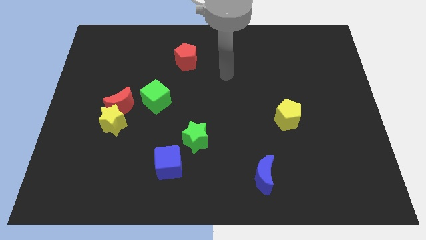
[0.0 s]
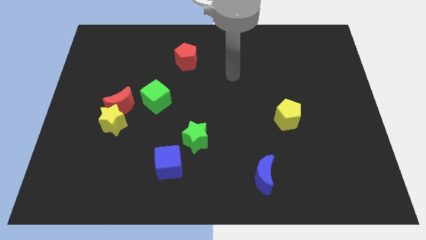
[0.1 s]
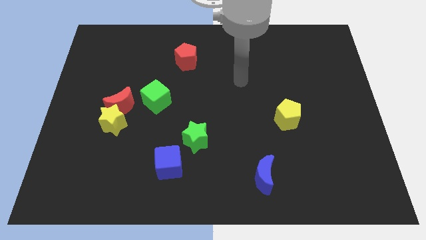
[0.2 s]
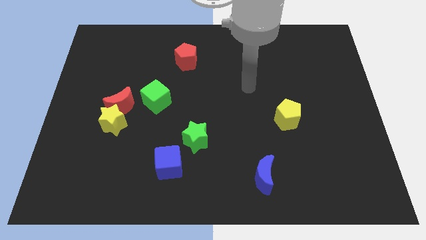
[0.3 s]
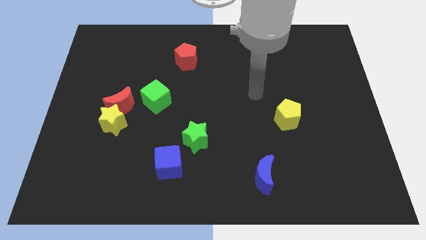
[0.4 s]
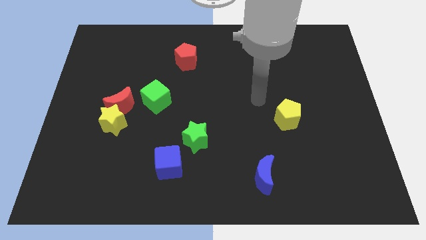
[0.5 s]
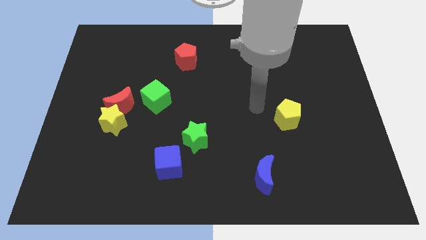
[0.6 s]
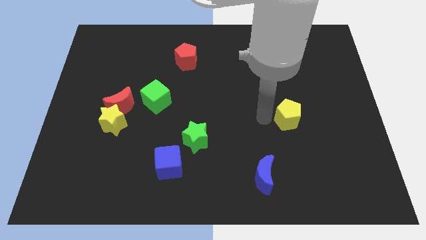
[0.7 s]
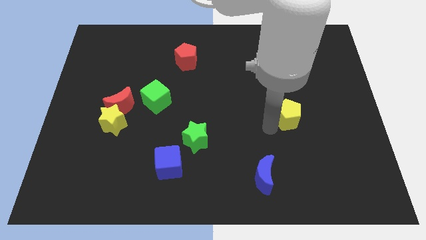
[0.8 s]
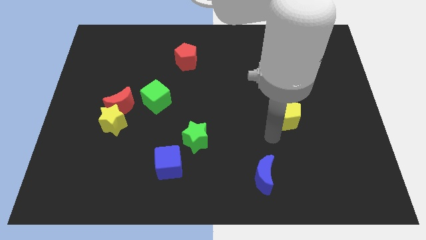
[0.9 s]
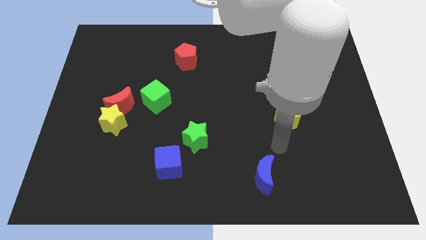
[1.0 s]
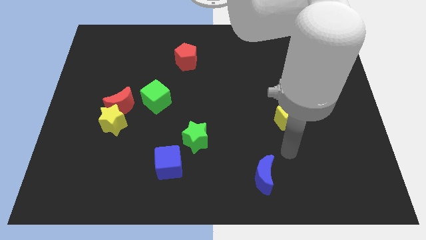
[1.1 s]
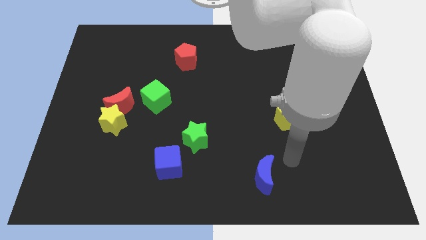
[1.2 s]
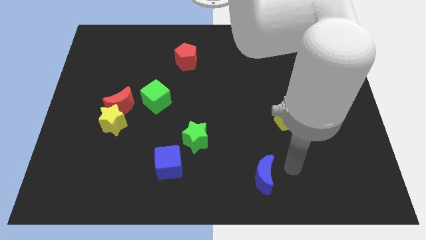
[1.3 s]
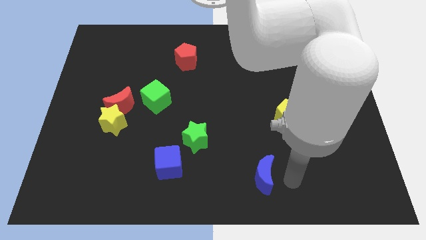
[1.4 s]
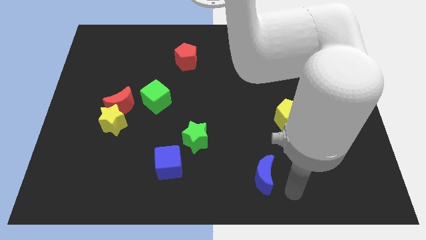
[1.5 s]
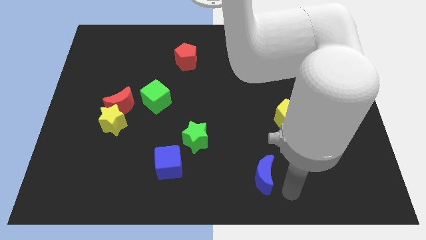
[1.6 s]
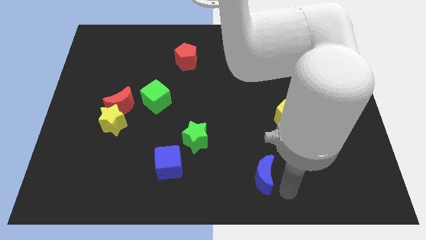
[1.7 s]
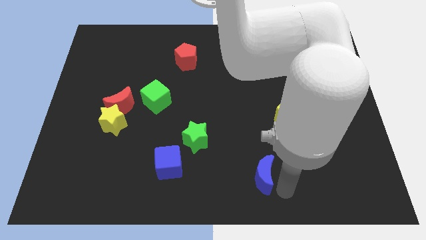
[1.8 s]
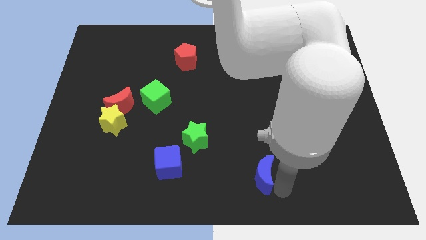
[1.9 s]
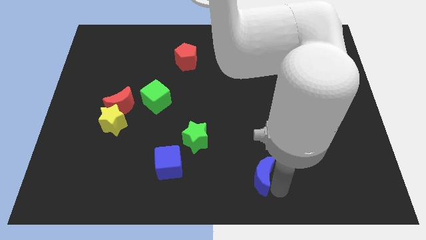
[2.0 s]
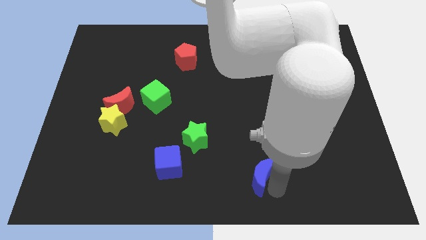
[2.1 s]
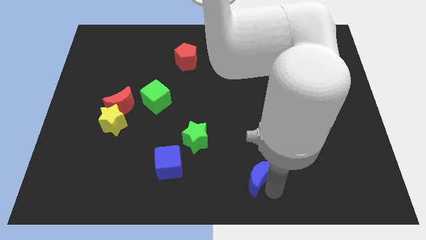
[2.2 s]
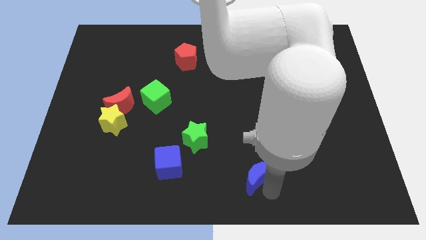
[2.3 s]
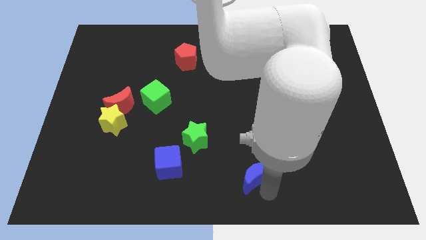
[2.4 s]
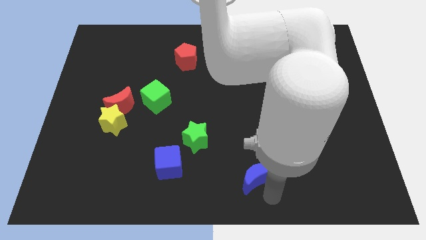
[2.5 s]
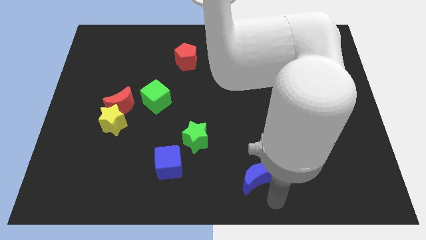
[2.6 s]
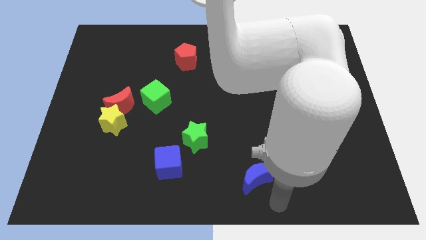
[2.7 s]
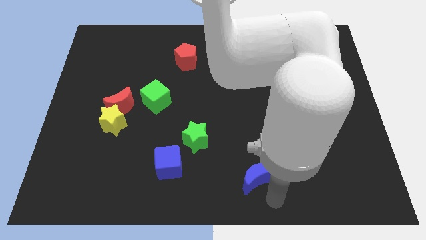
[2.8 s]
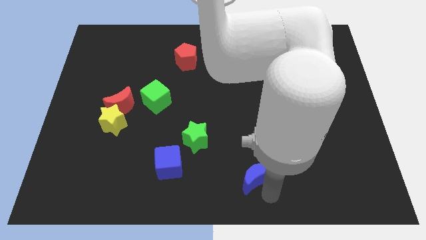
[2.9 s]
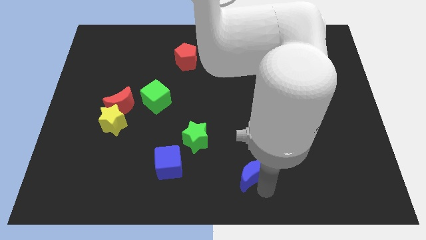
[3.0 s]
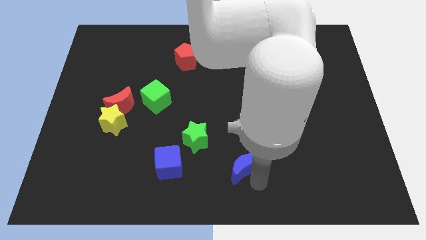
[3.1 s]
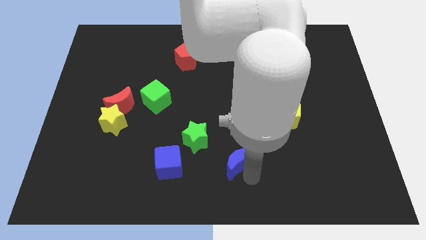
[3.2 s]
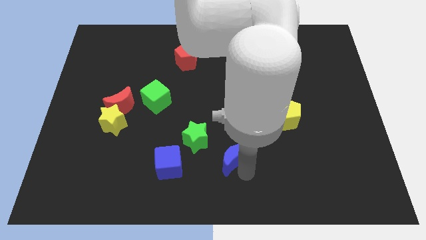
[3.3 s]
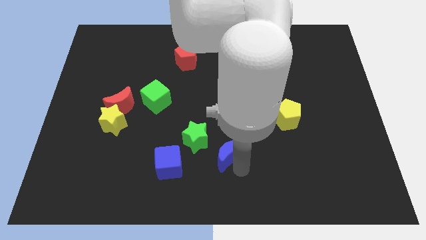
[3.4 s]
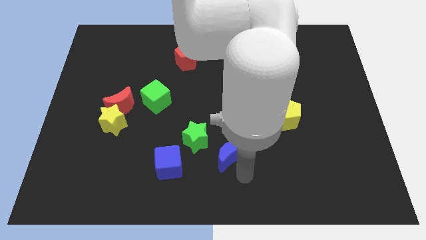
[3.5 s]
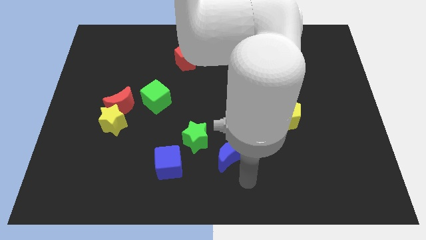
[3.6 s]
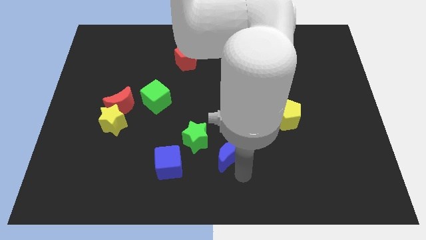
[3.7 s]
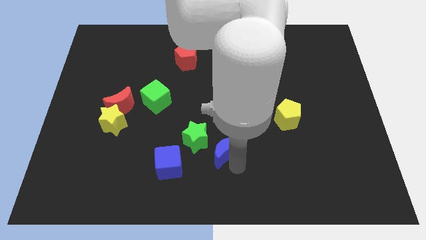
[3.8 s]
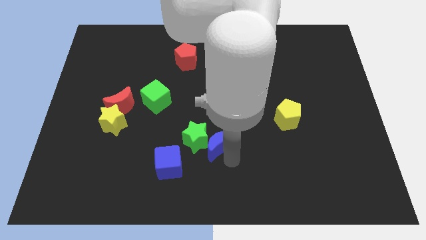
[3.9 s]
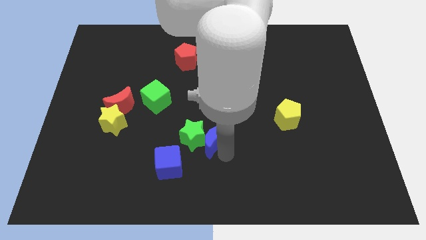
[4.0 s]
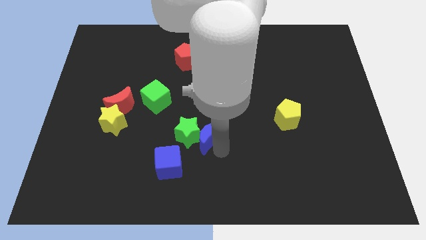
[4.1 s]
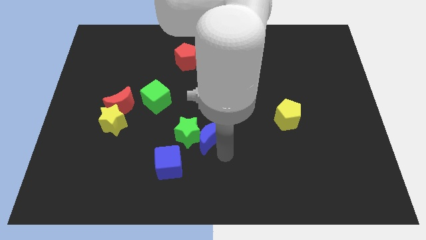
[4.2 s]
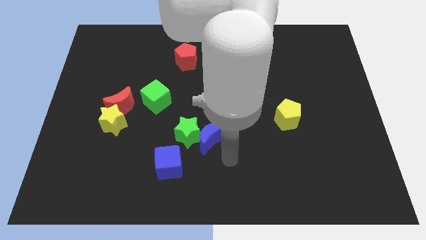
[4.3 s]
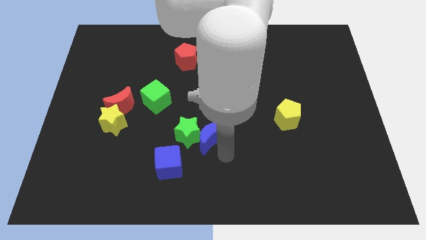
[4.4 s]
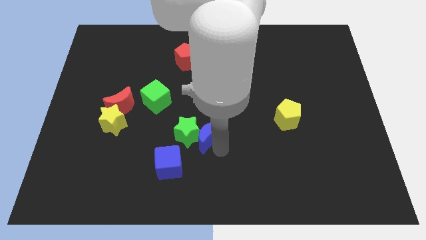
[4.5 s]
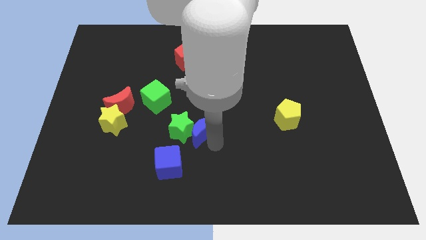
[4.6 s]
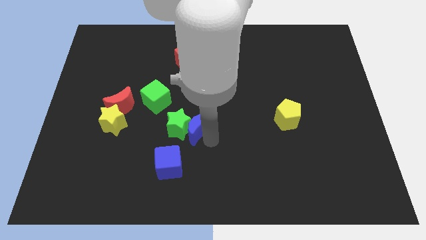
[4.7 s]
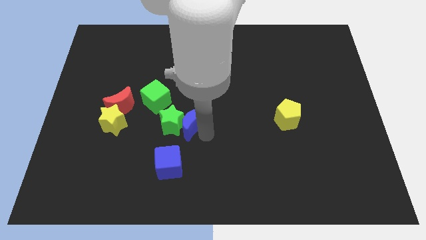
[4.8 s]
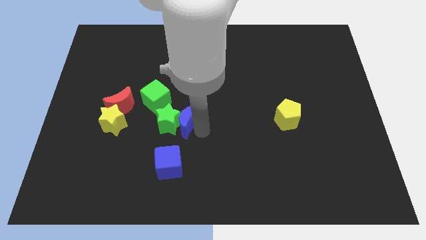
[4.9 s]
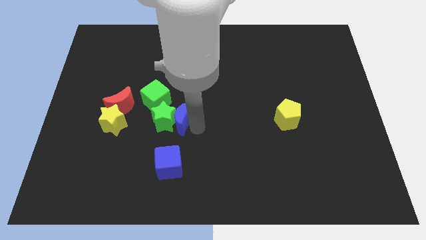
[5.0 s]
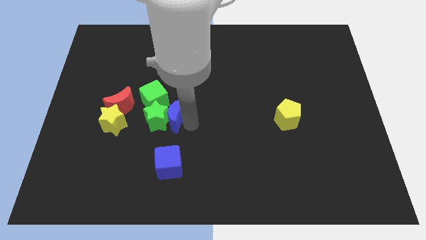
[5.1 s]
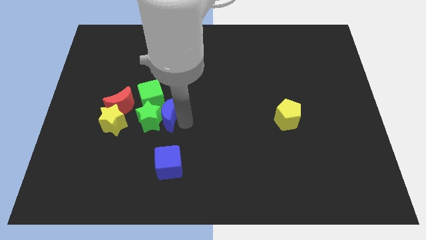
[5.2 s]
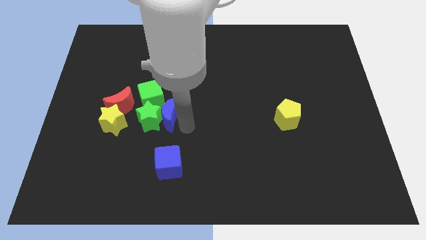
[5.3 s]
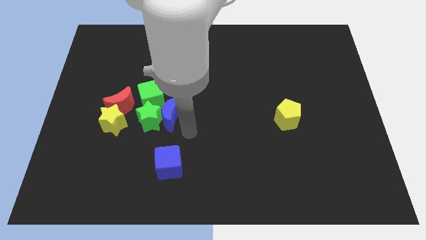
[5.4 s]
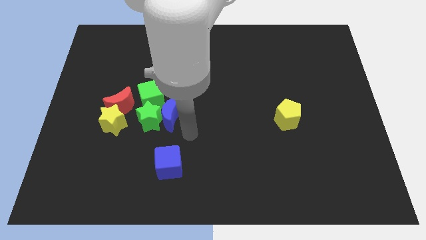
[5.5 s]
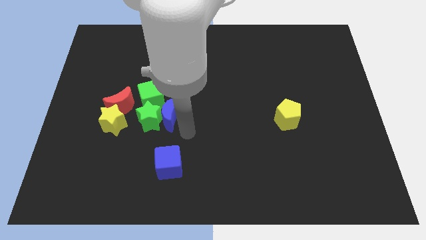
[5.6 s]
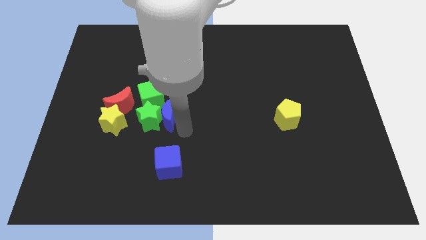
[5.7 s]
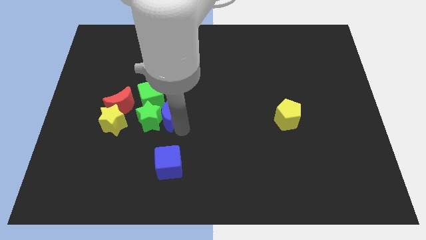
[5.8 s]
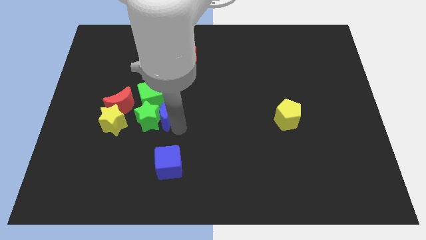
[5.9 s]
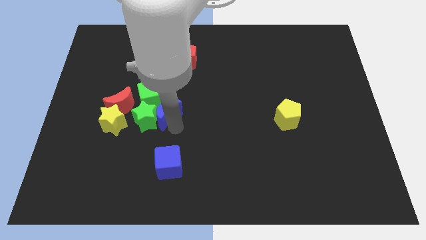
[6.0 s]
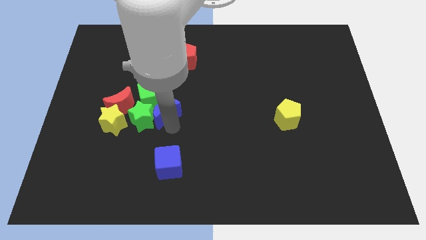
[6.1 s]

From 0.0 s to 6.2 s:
slide the blue moon to the green cube

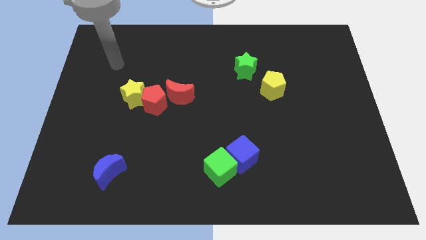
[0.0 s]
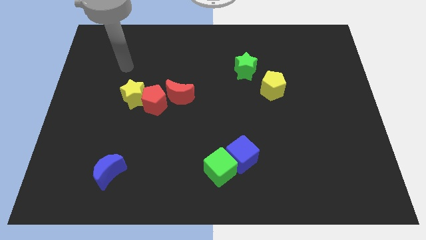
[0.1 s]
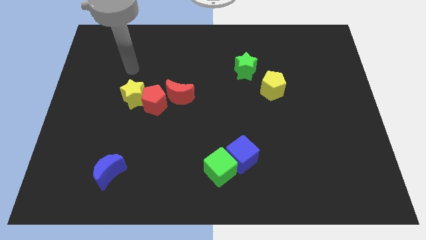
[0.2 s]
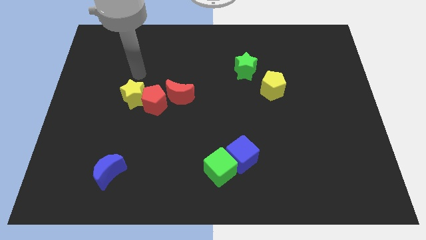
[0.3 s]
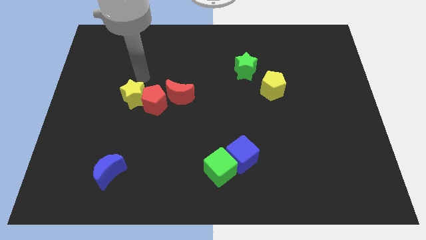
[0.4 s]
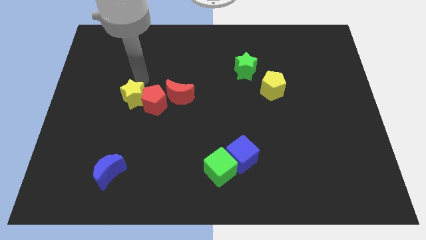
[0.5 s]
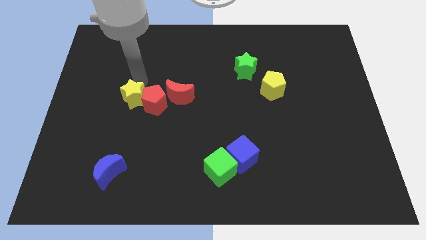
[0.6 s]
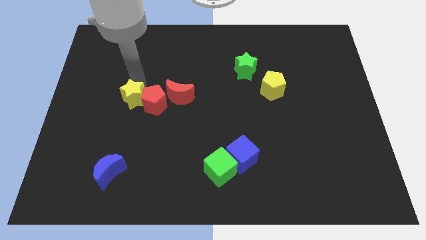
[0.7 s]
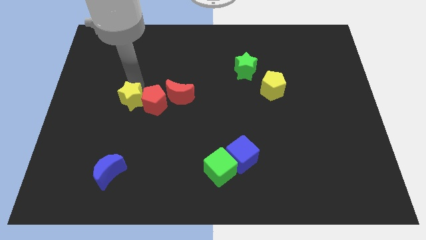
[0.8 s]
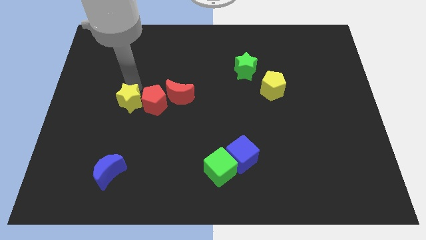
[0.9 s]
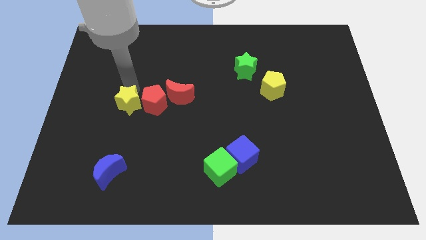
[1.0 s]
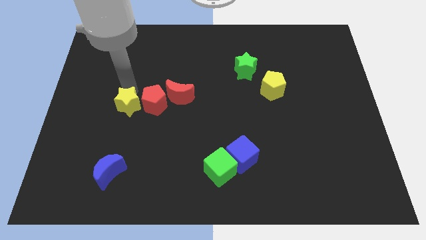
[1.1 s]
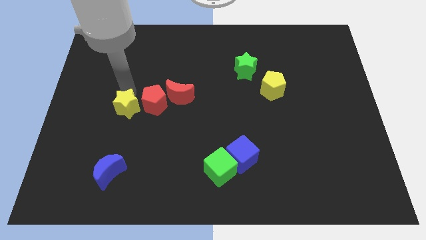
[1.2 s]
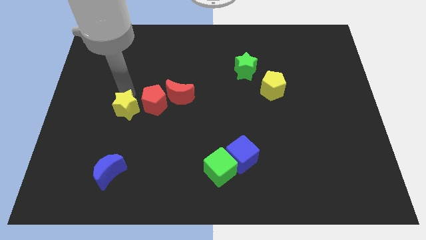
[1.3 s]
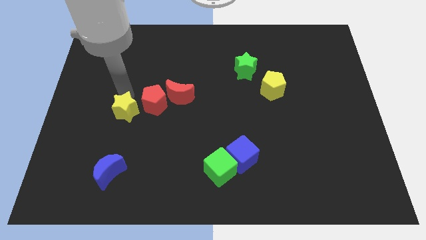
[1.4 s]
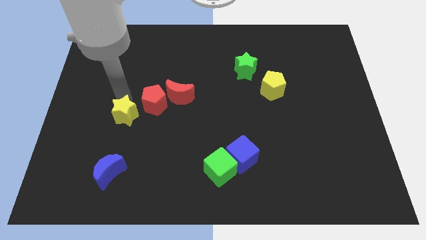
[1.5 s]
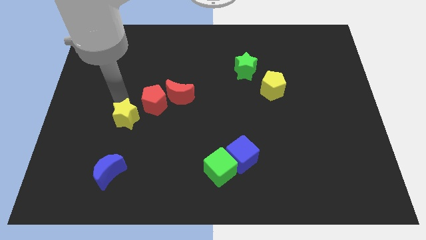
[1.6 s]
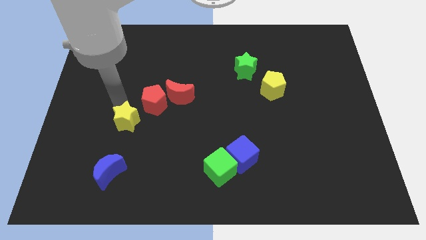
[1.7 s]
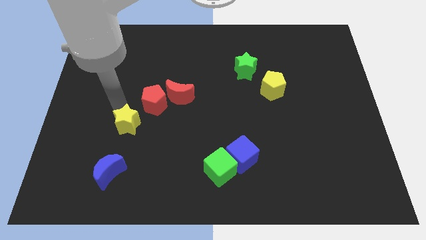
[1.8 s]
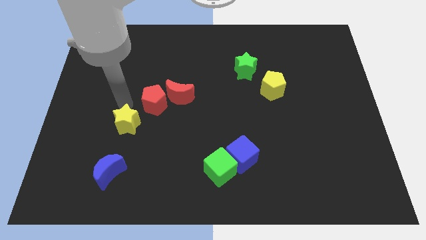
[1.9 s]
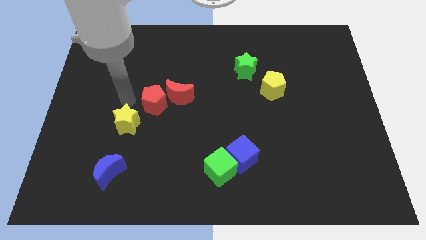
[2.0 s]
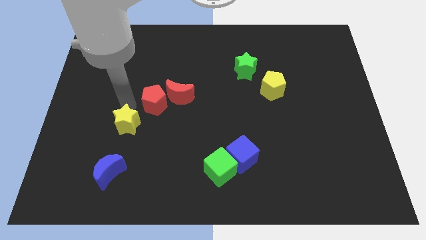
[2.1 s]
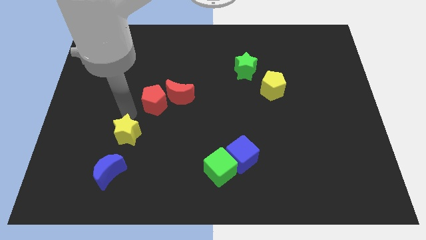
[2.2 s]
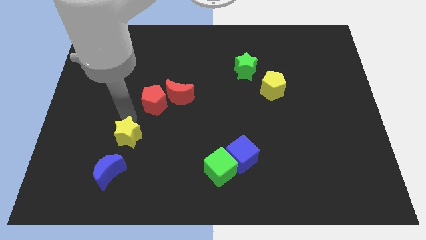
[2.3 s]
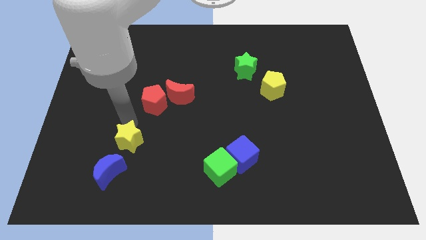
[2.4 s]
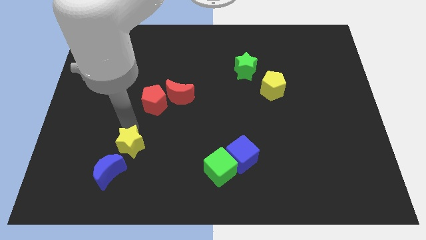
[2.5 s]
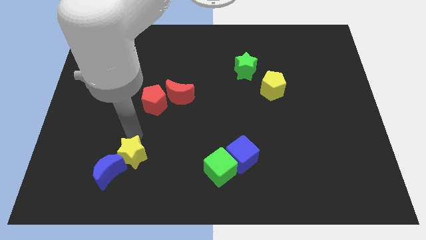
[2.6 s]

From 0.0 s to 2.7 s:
move the yellow star next to the blue moon
